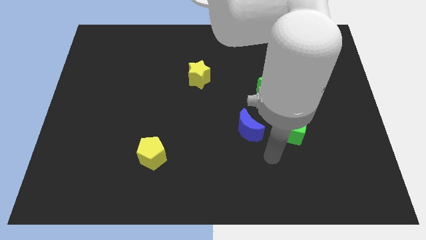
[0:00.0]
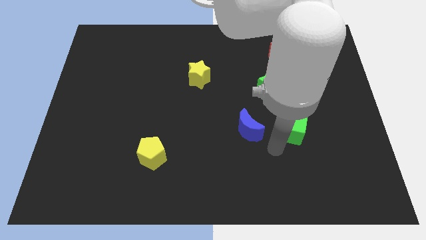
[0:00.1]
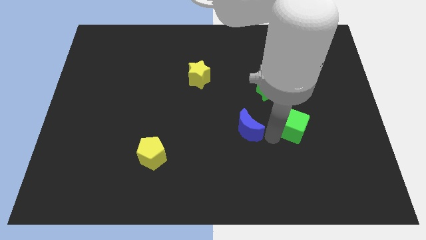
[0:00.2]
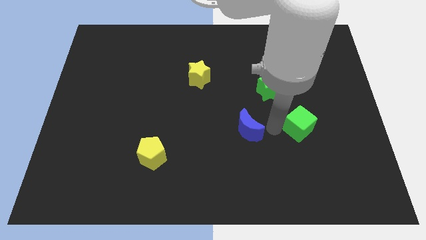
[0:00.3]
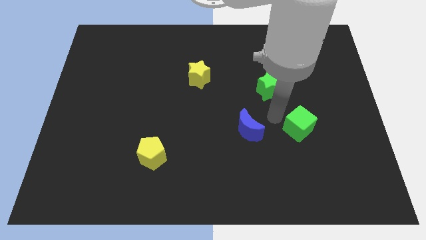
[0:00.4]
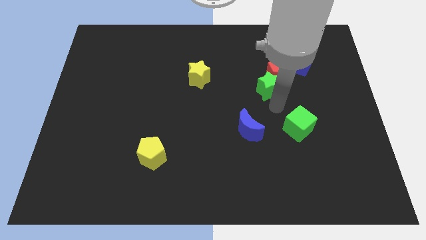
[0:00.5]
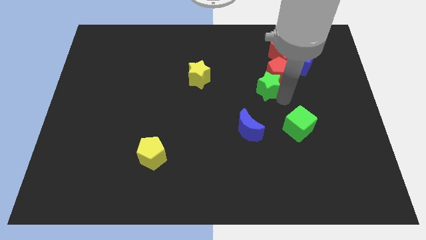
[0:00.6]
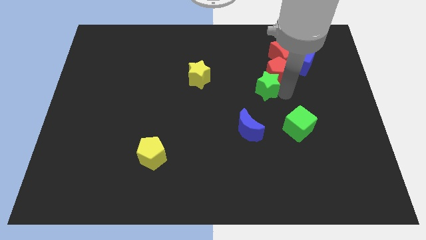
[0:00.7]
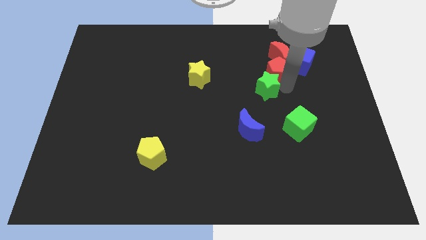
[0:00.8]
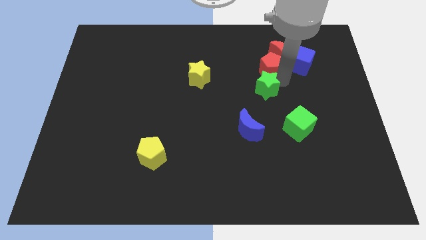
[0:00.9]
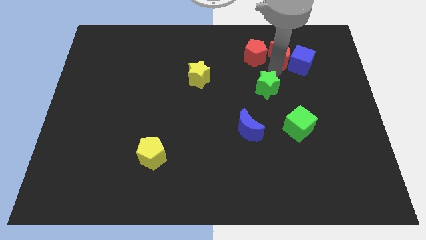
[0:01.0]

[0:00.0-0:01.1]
move the green star away from the red pentagon

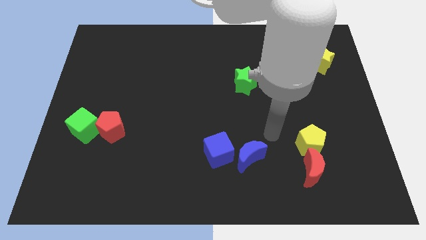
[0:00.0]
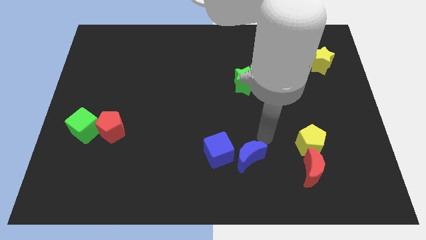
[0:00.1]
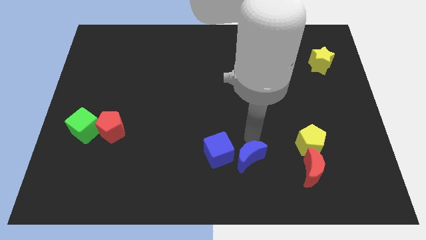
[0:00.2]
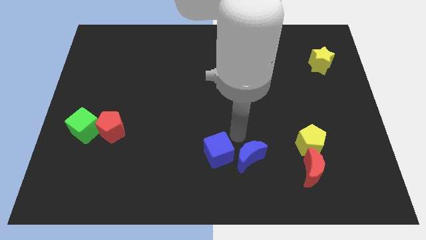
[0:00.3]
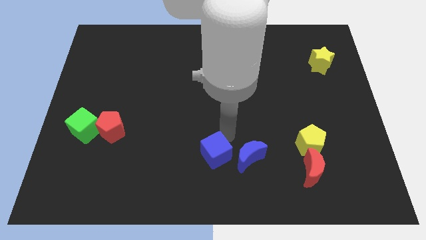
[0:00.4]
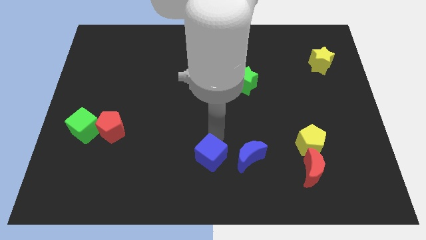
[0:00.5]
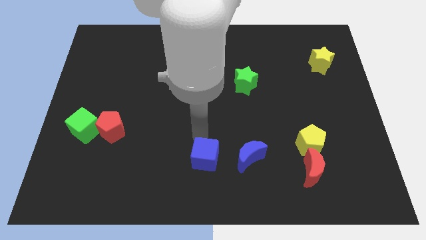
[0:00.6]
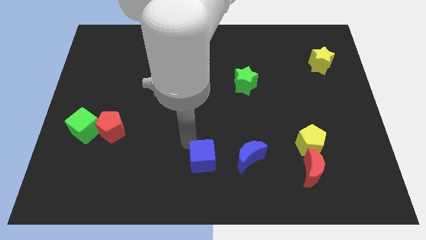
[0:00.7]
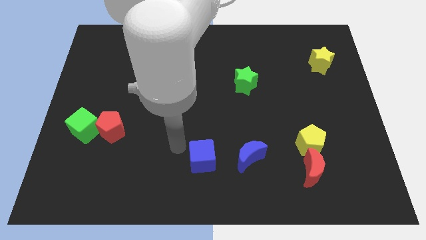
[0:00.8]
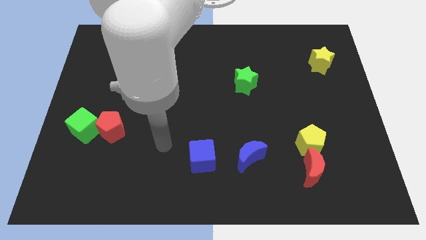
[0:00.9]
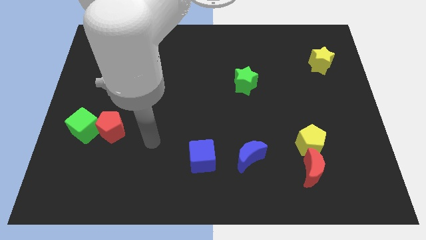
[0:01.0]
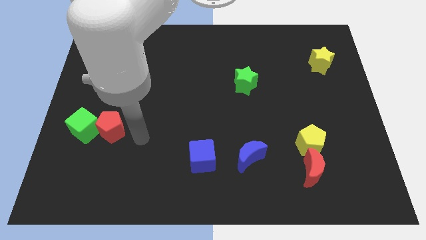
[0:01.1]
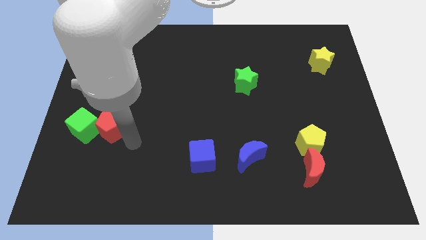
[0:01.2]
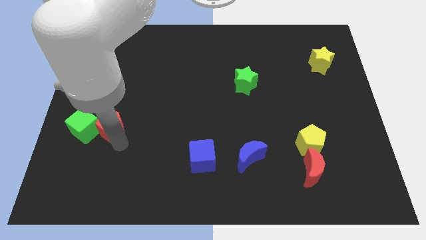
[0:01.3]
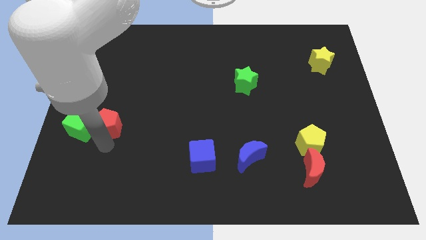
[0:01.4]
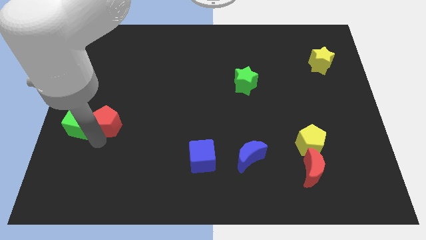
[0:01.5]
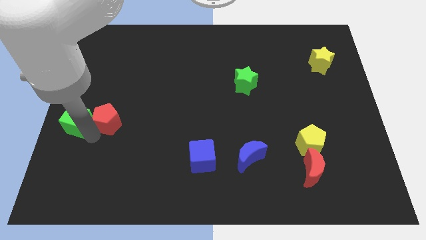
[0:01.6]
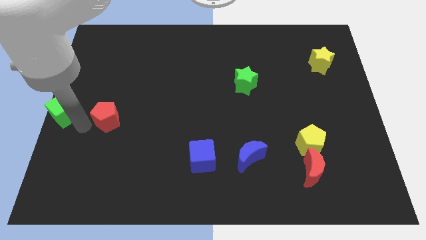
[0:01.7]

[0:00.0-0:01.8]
pull the red pentagon apart from the green cube

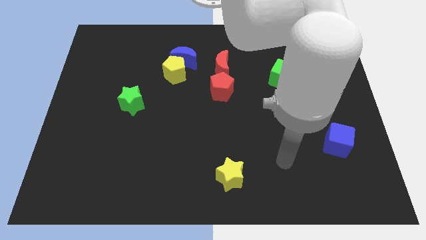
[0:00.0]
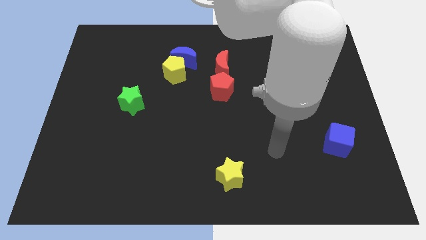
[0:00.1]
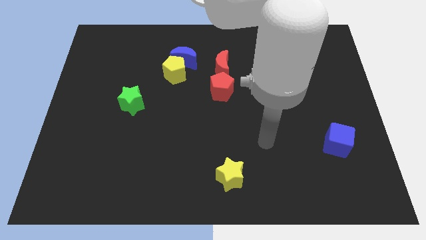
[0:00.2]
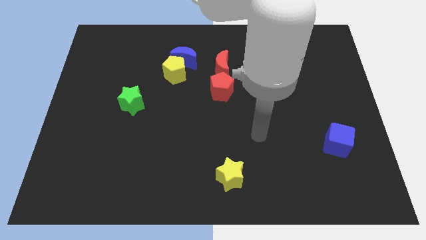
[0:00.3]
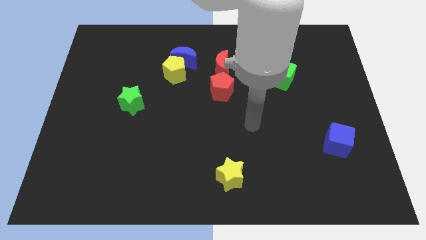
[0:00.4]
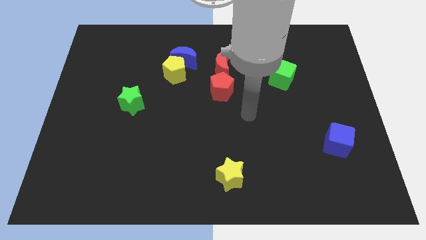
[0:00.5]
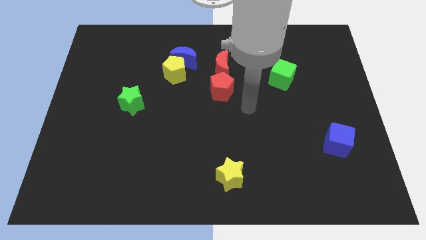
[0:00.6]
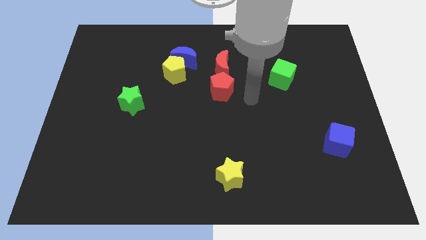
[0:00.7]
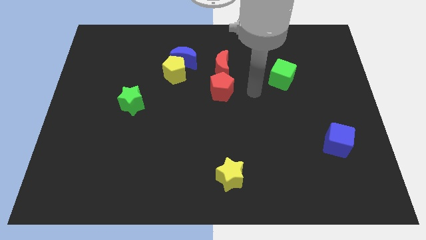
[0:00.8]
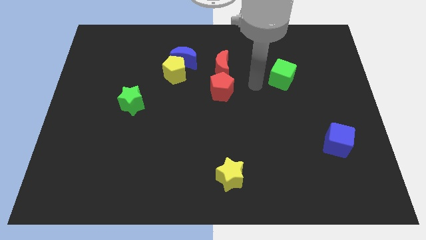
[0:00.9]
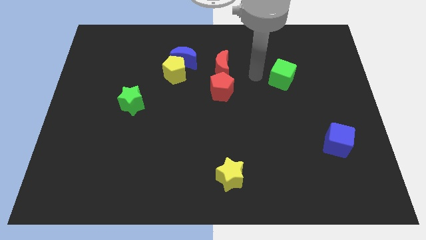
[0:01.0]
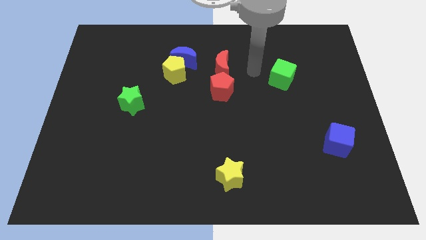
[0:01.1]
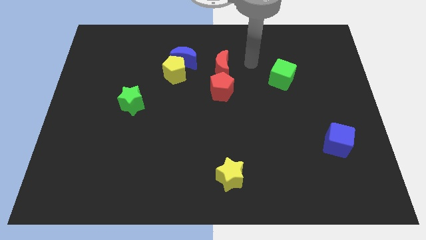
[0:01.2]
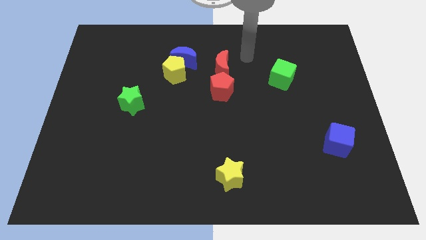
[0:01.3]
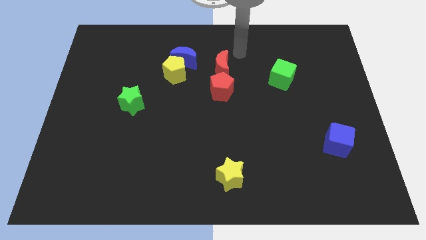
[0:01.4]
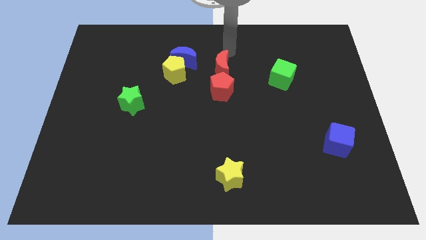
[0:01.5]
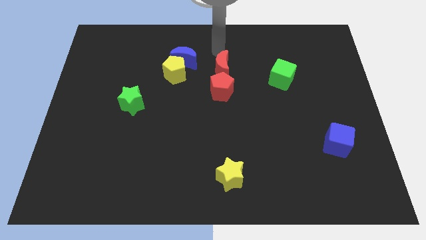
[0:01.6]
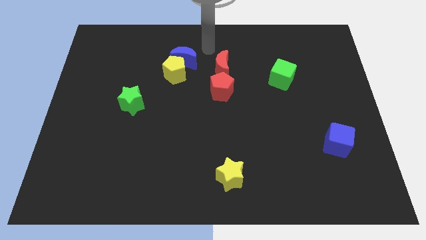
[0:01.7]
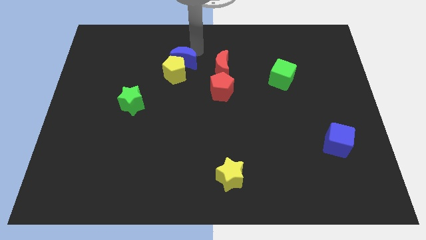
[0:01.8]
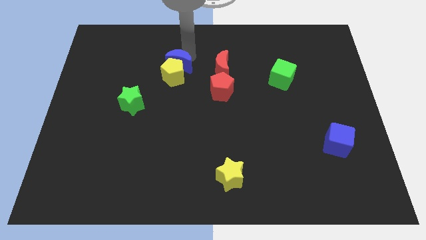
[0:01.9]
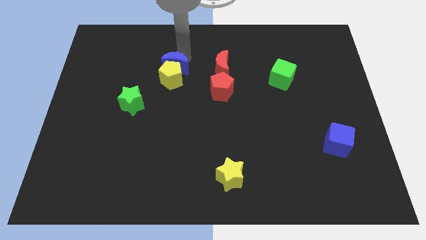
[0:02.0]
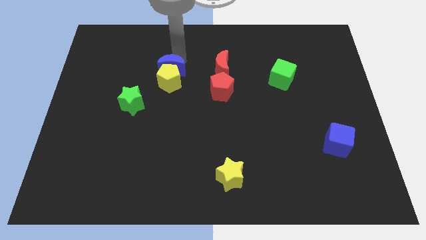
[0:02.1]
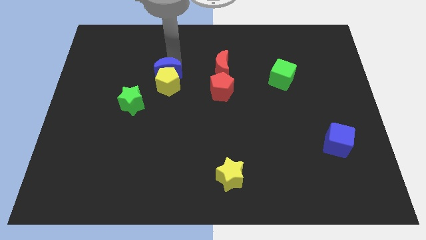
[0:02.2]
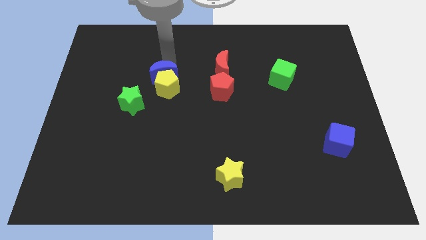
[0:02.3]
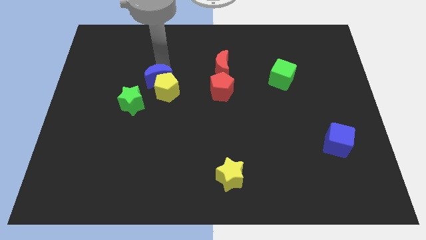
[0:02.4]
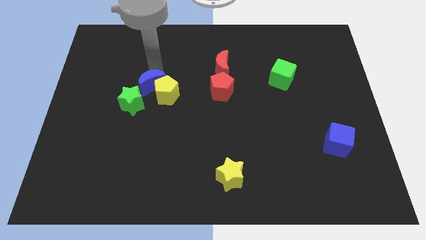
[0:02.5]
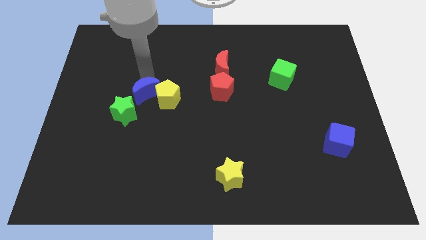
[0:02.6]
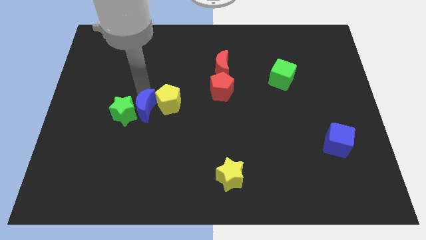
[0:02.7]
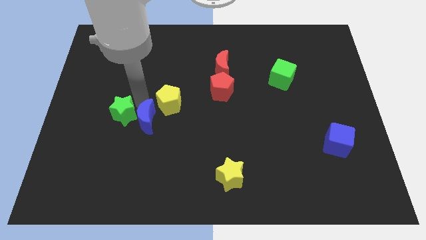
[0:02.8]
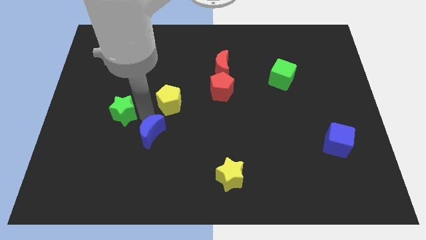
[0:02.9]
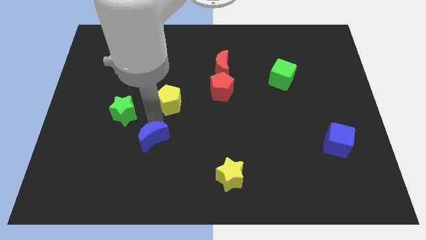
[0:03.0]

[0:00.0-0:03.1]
separate the yellow pentagon from the blue moon

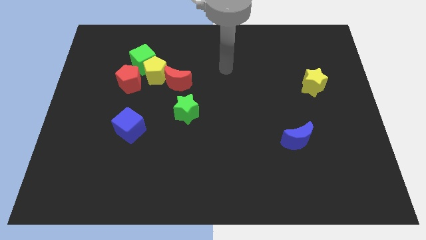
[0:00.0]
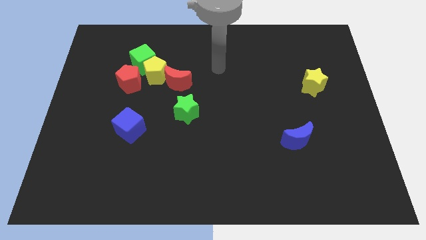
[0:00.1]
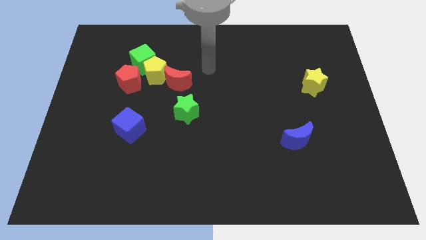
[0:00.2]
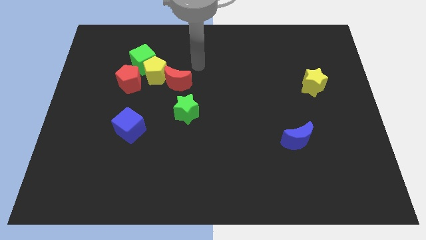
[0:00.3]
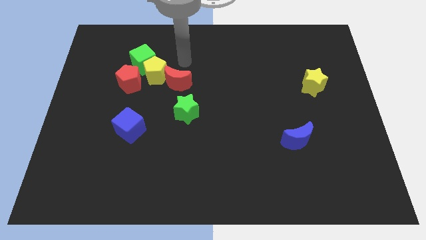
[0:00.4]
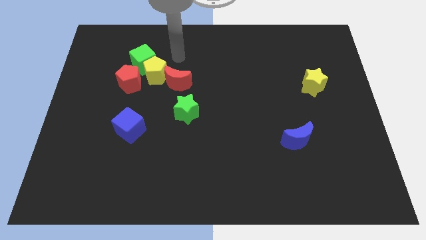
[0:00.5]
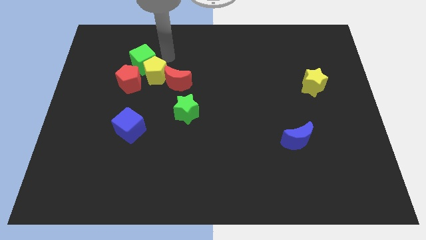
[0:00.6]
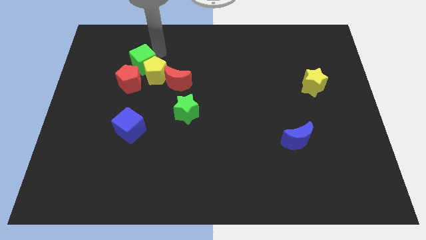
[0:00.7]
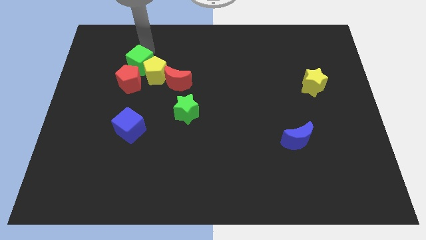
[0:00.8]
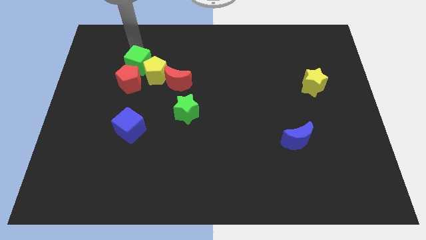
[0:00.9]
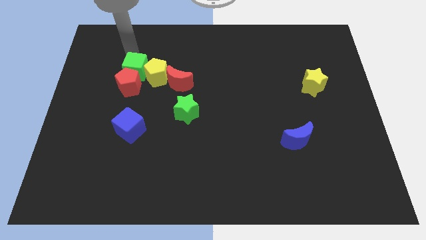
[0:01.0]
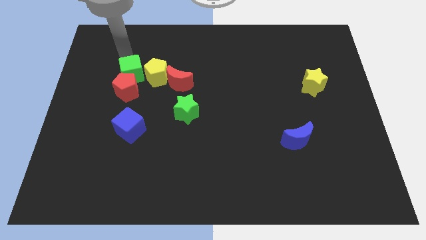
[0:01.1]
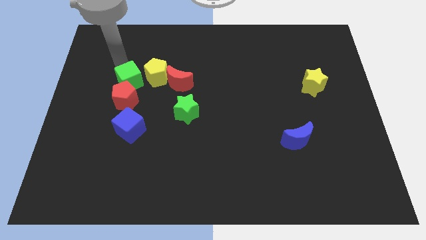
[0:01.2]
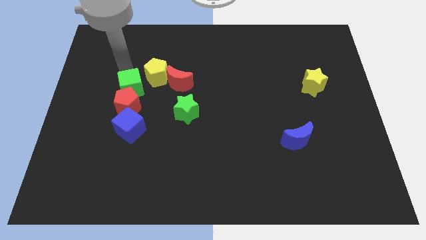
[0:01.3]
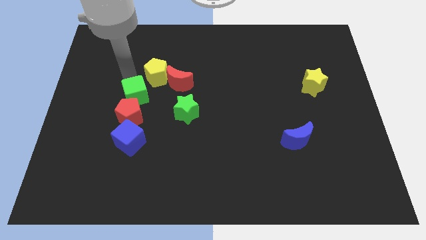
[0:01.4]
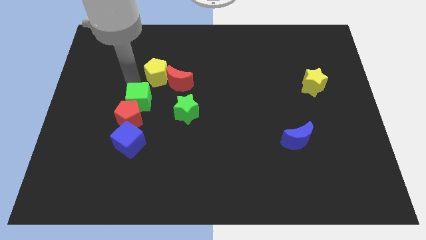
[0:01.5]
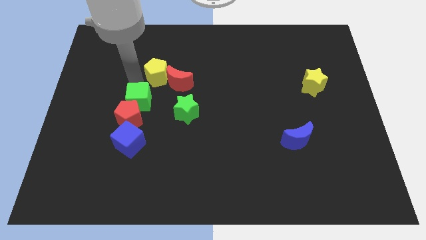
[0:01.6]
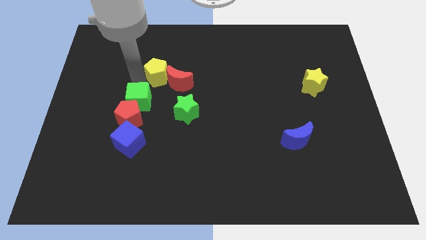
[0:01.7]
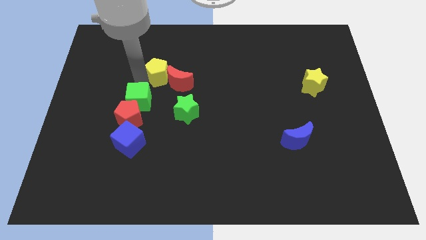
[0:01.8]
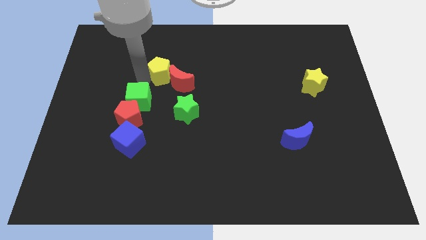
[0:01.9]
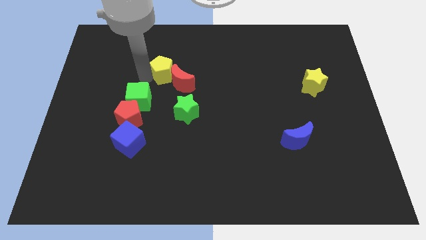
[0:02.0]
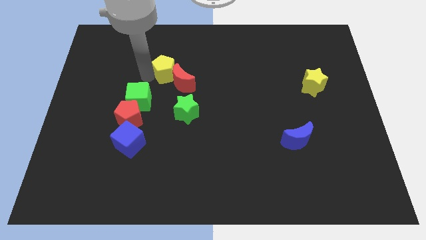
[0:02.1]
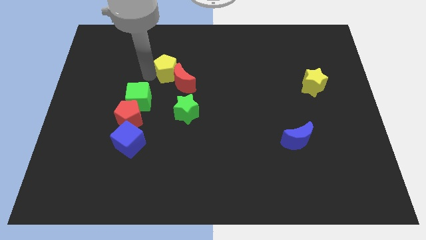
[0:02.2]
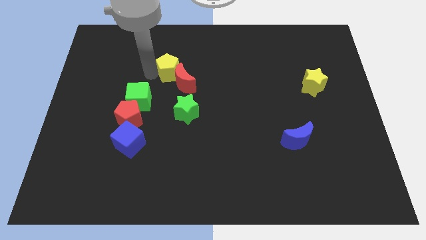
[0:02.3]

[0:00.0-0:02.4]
move the yellow pentagon away from the group

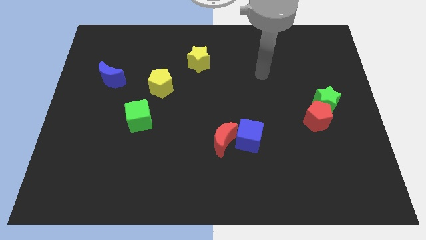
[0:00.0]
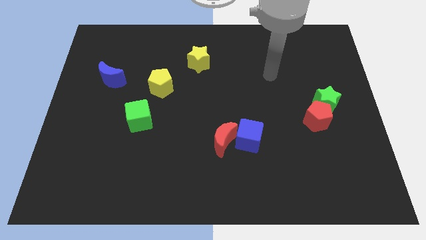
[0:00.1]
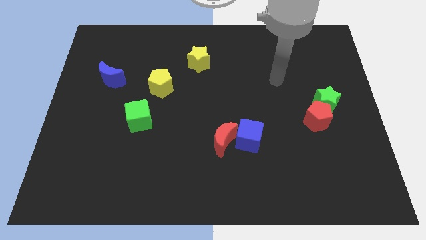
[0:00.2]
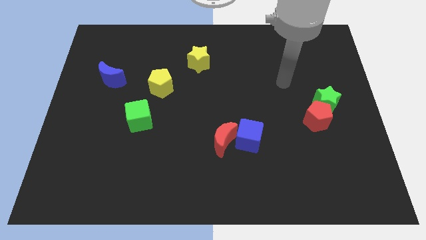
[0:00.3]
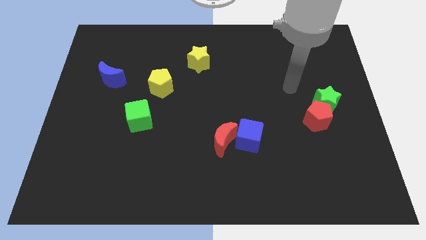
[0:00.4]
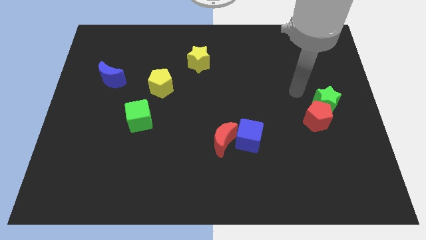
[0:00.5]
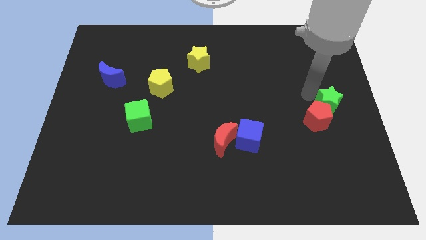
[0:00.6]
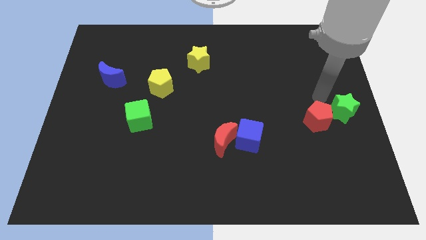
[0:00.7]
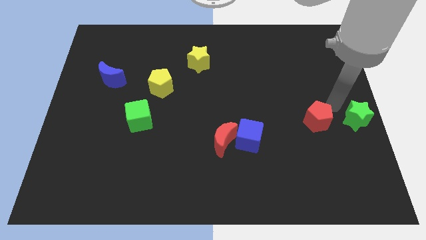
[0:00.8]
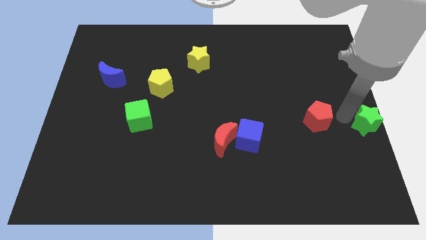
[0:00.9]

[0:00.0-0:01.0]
move the red pentagon away from the green star
